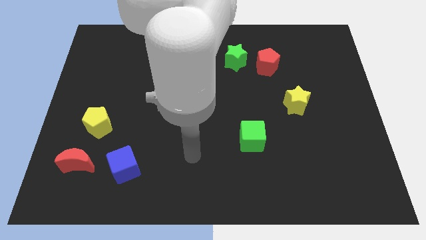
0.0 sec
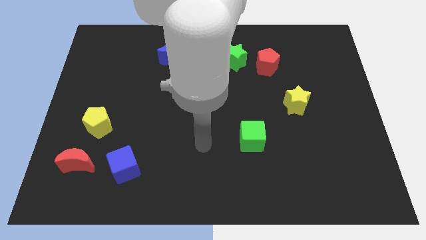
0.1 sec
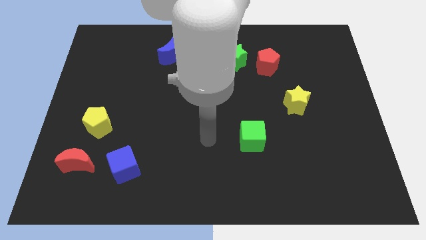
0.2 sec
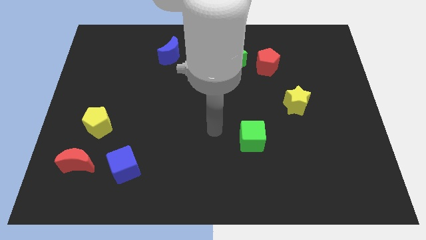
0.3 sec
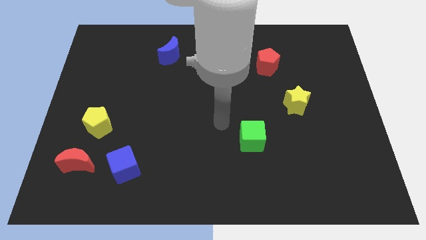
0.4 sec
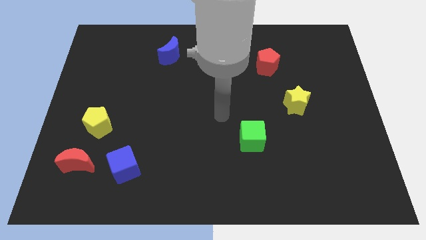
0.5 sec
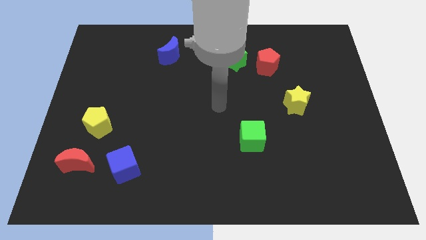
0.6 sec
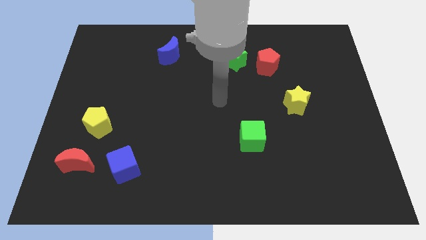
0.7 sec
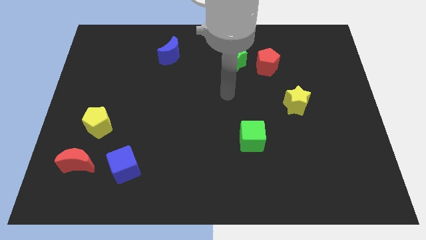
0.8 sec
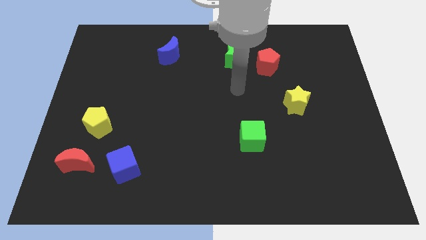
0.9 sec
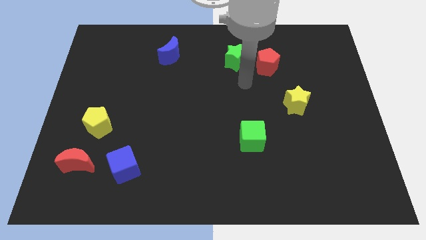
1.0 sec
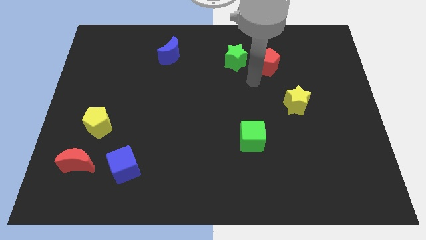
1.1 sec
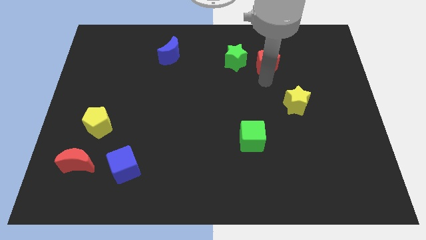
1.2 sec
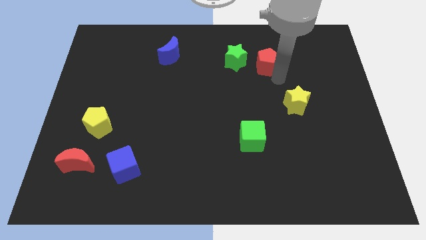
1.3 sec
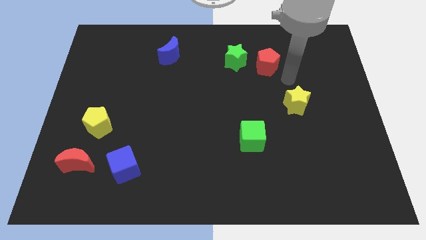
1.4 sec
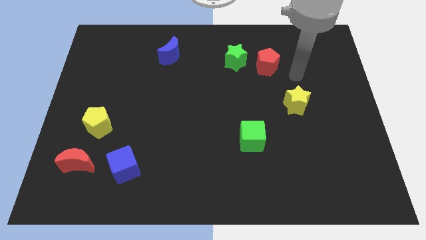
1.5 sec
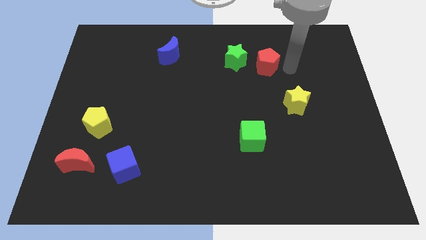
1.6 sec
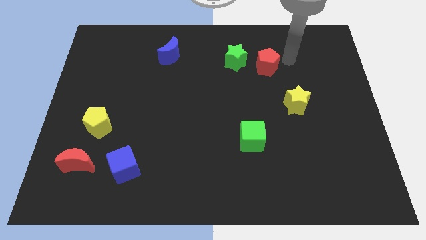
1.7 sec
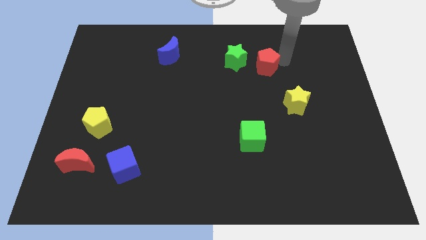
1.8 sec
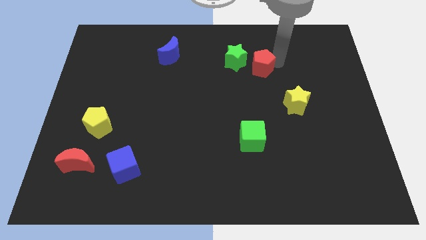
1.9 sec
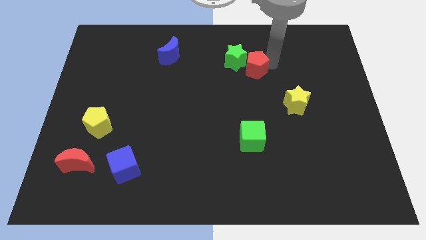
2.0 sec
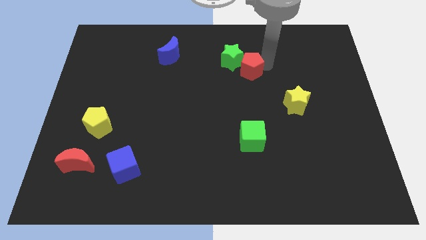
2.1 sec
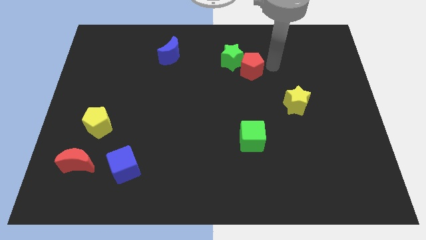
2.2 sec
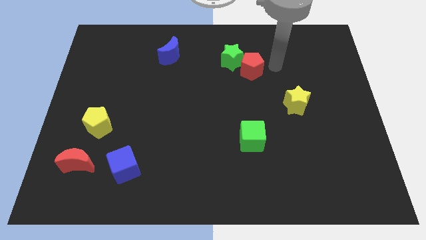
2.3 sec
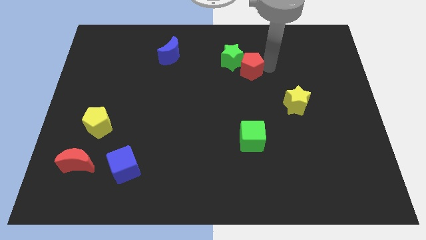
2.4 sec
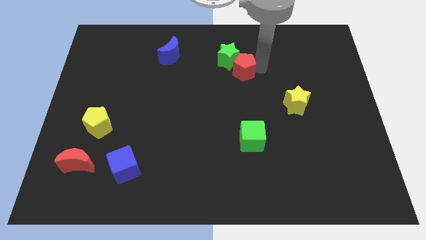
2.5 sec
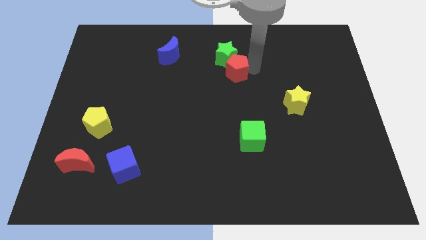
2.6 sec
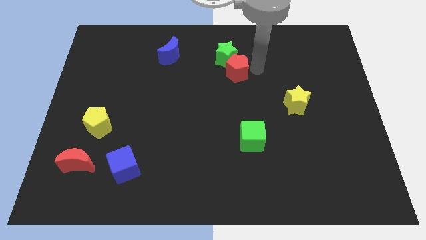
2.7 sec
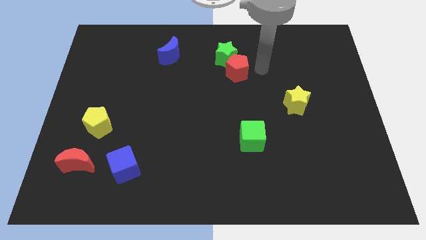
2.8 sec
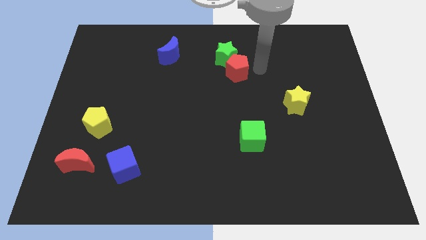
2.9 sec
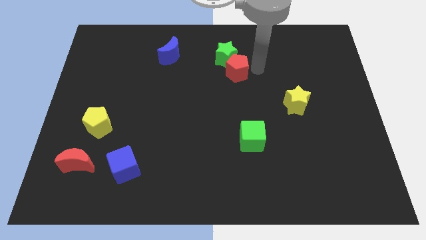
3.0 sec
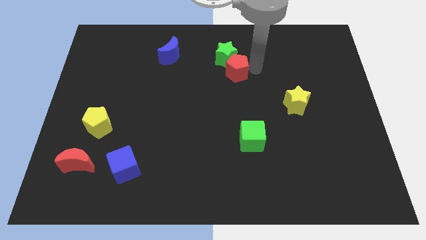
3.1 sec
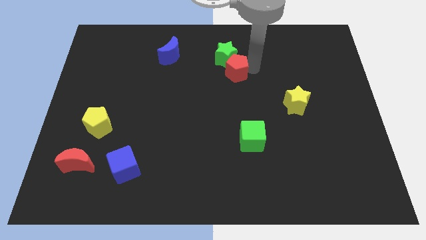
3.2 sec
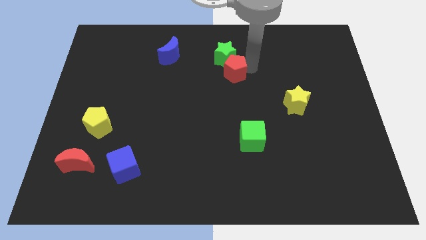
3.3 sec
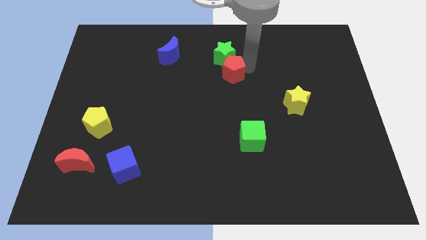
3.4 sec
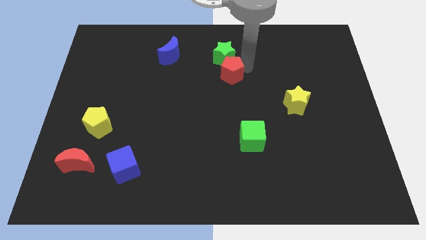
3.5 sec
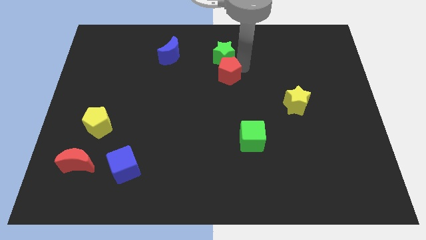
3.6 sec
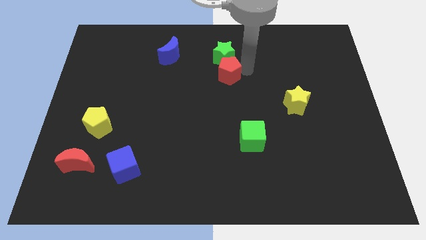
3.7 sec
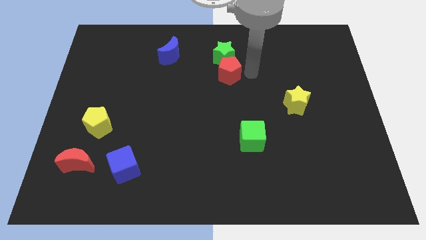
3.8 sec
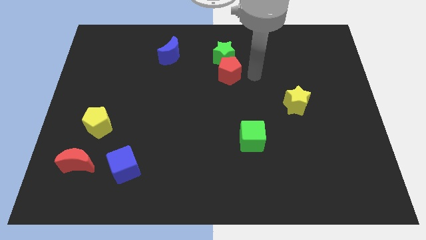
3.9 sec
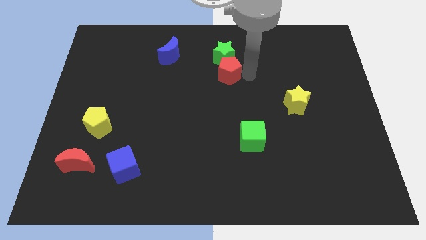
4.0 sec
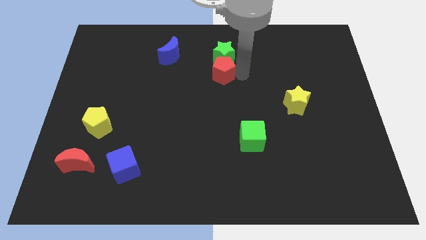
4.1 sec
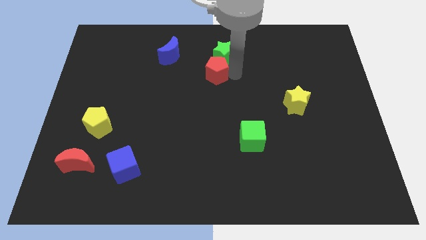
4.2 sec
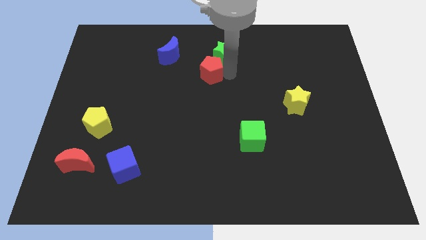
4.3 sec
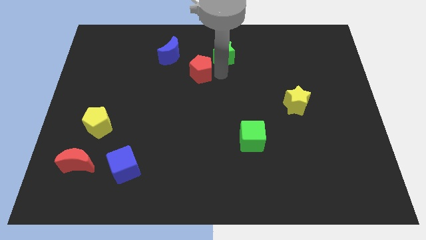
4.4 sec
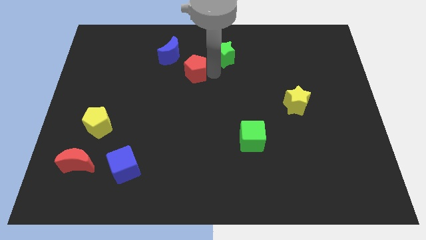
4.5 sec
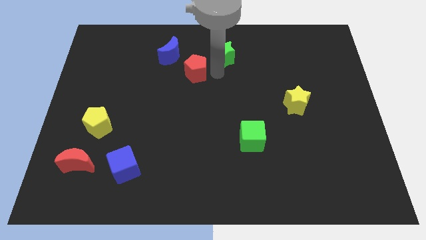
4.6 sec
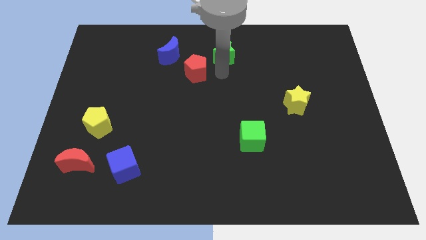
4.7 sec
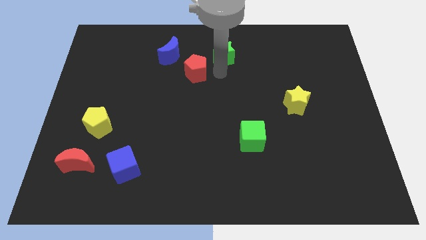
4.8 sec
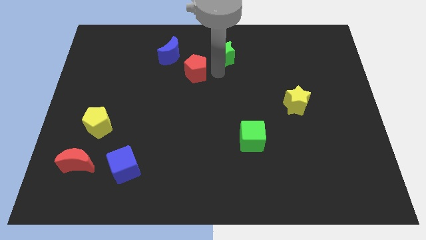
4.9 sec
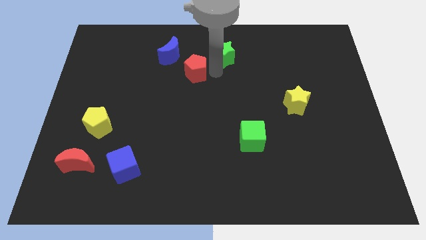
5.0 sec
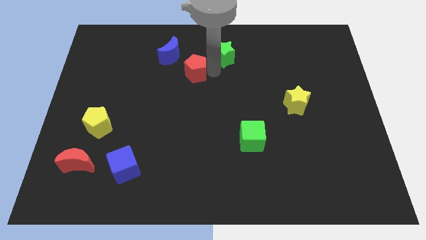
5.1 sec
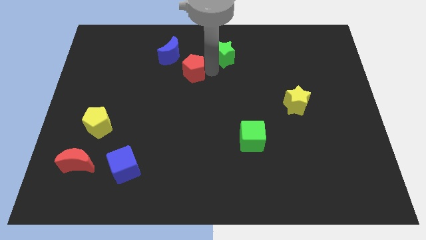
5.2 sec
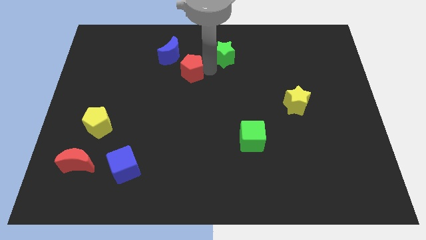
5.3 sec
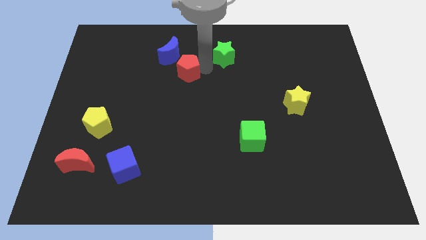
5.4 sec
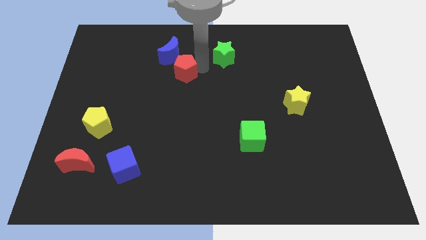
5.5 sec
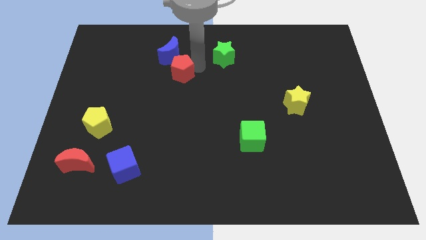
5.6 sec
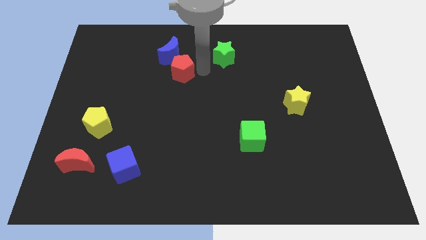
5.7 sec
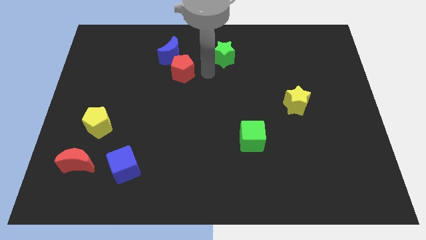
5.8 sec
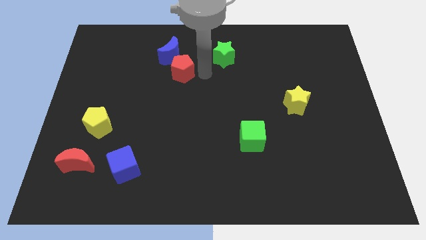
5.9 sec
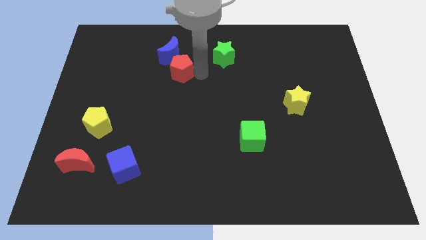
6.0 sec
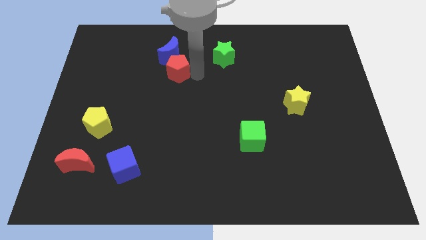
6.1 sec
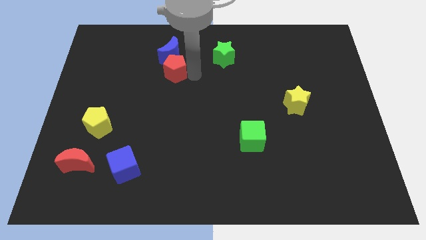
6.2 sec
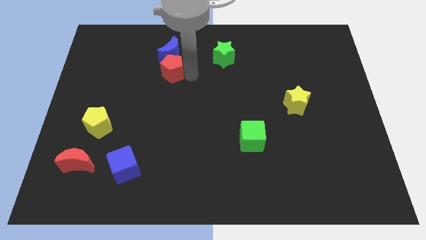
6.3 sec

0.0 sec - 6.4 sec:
slide the red pentagon diagonally down and to the left of the blue moon
